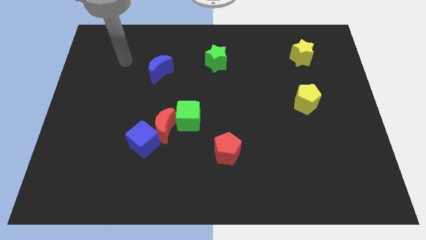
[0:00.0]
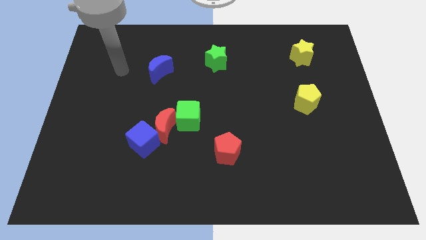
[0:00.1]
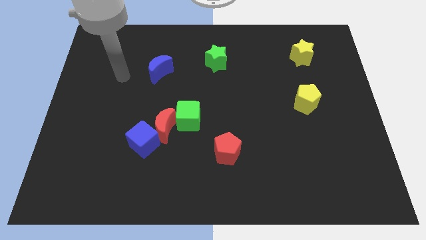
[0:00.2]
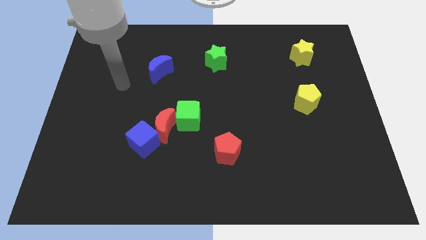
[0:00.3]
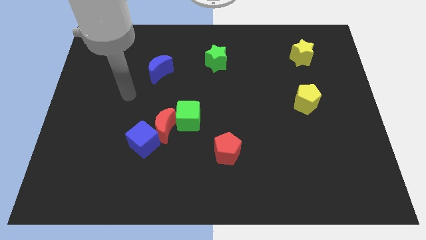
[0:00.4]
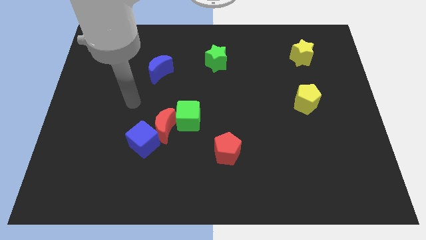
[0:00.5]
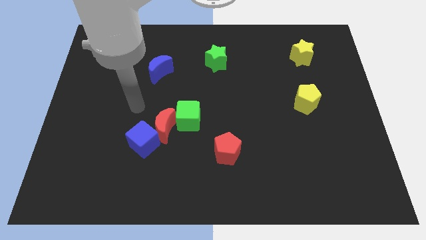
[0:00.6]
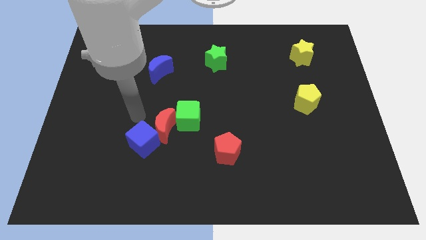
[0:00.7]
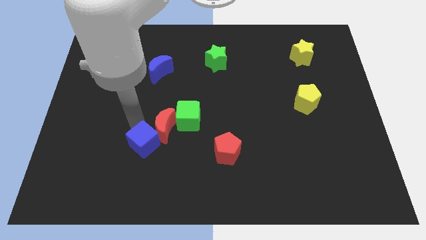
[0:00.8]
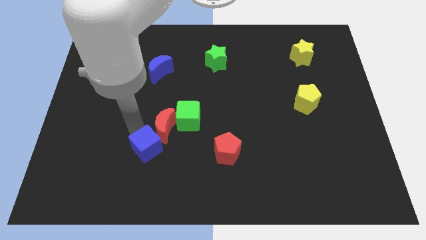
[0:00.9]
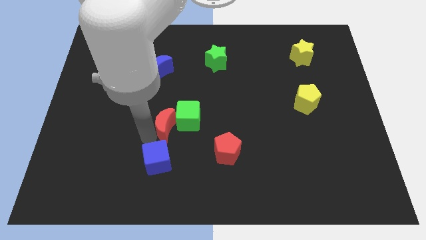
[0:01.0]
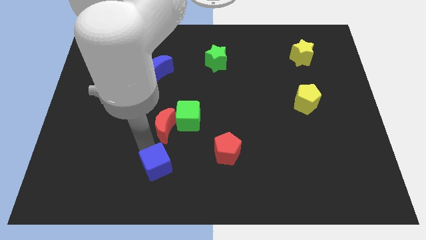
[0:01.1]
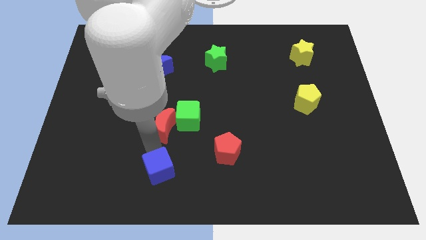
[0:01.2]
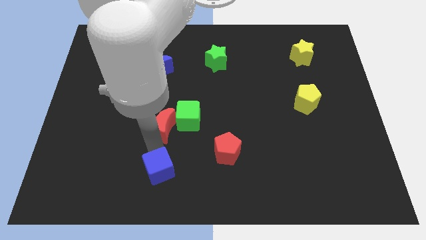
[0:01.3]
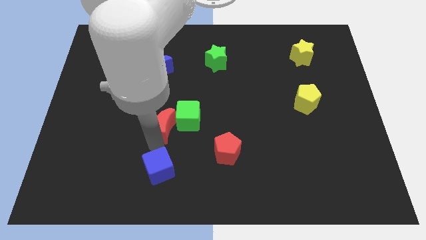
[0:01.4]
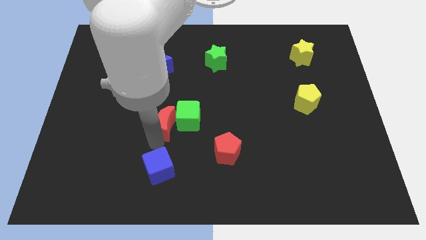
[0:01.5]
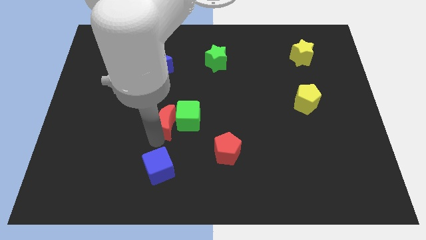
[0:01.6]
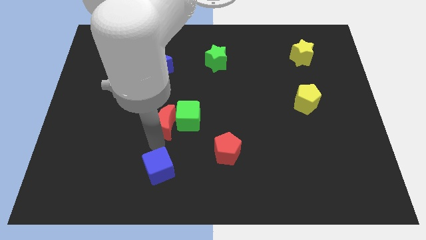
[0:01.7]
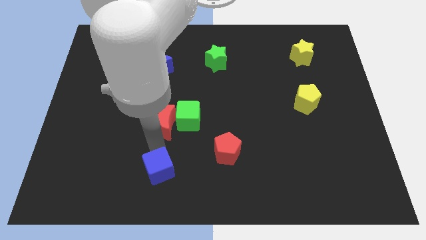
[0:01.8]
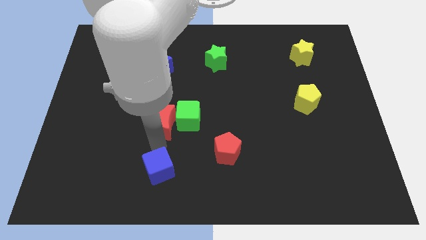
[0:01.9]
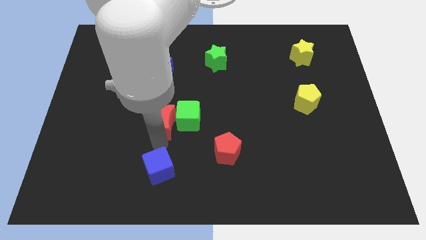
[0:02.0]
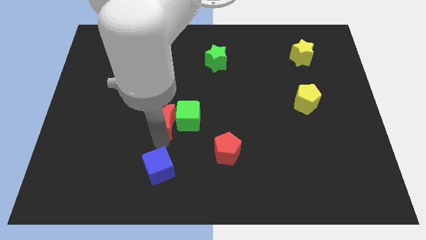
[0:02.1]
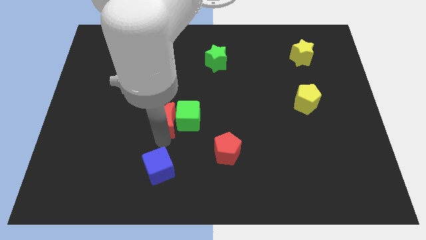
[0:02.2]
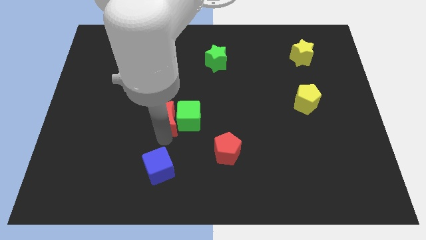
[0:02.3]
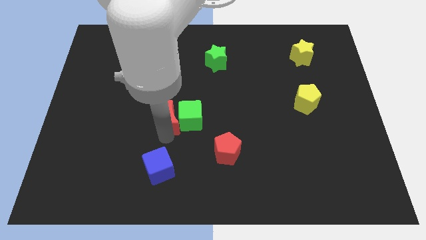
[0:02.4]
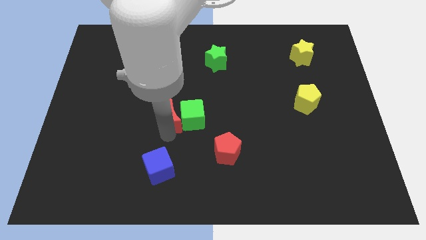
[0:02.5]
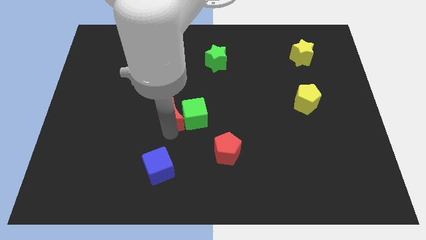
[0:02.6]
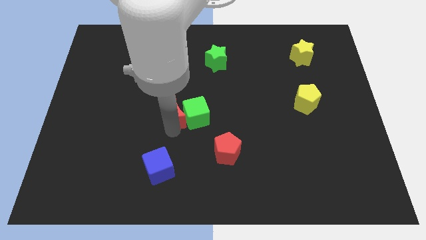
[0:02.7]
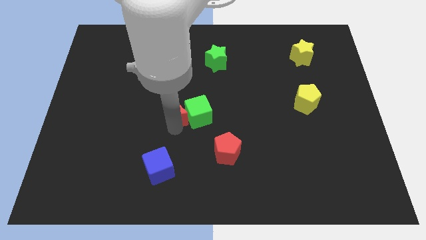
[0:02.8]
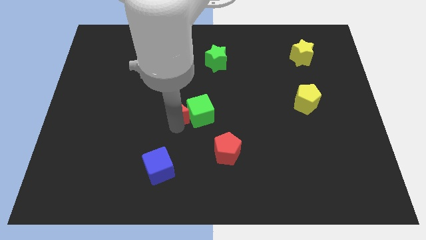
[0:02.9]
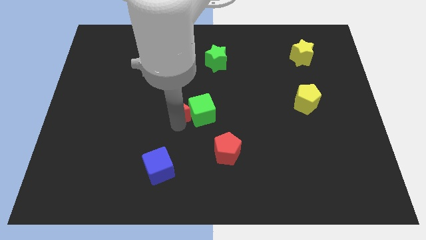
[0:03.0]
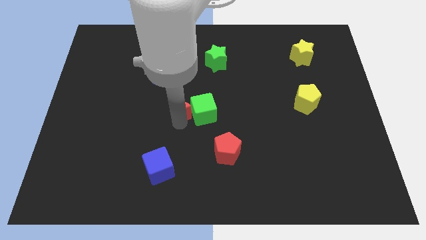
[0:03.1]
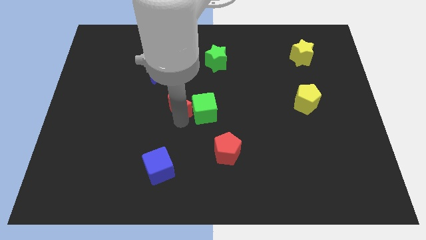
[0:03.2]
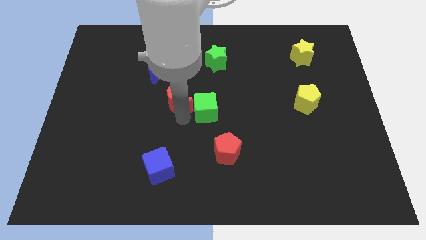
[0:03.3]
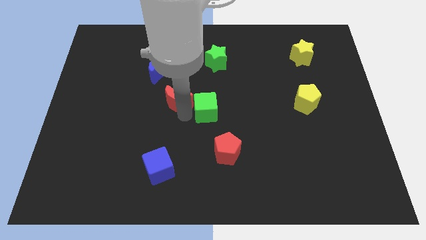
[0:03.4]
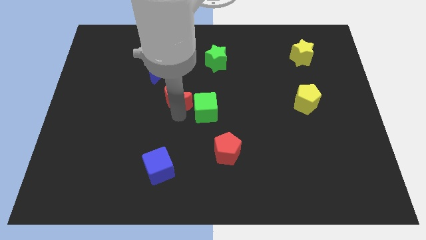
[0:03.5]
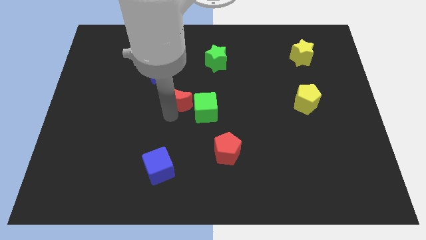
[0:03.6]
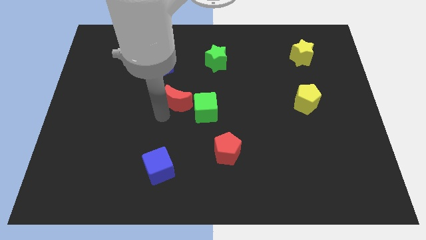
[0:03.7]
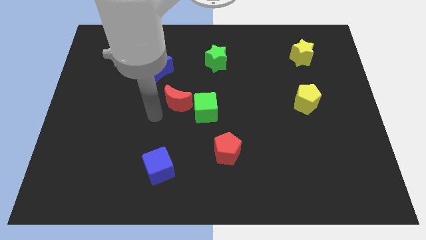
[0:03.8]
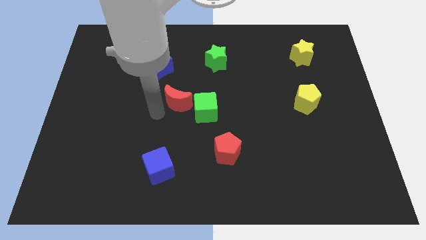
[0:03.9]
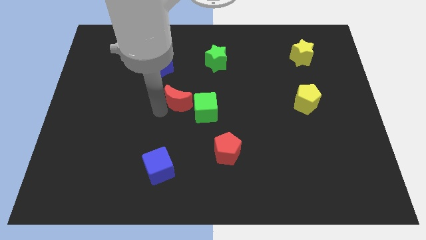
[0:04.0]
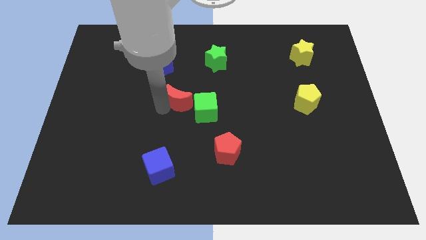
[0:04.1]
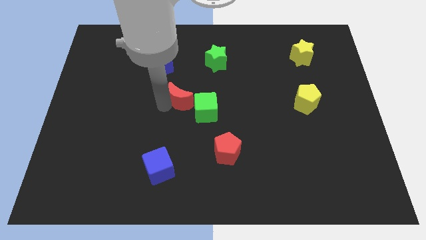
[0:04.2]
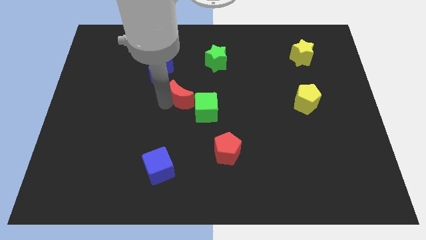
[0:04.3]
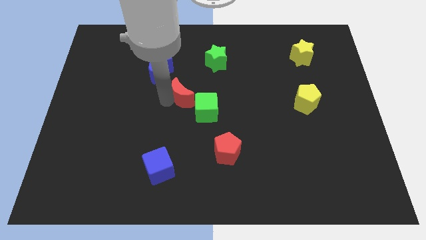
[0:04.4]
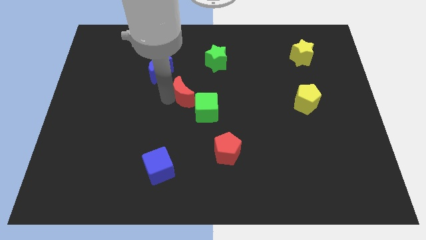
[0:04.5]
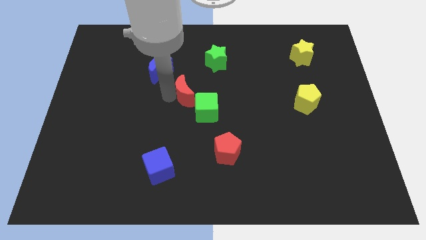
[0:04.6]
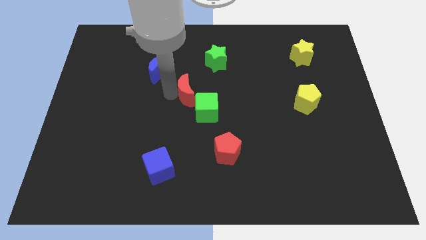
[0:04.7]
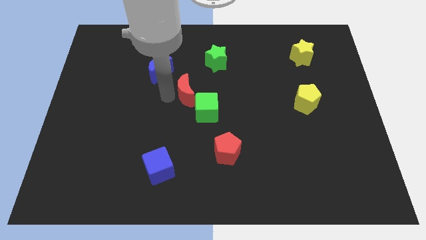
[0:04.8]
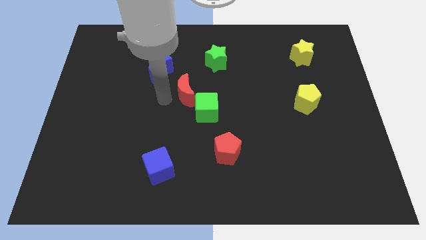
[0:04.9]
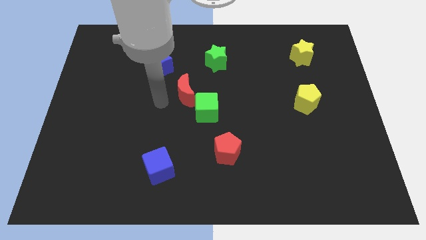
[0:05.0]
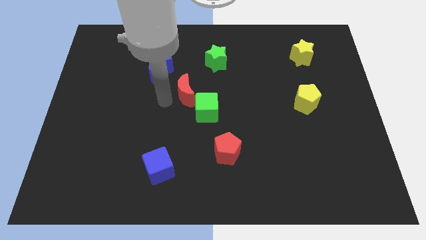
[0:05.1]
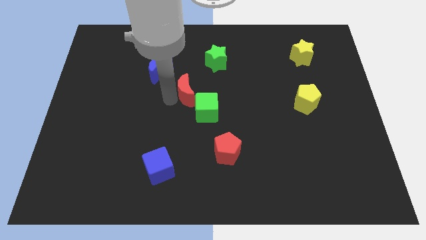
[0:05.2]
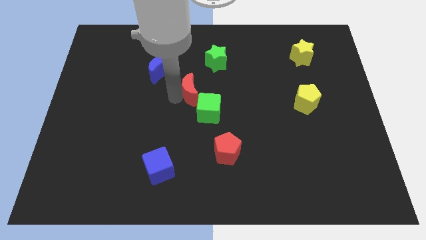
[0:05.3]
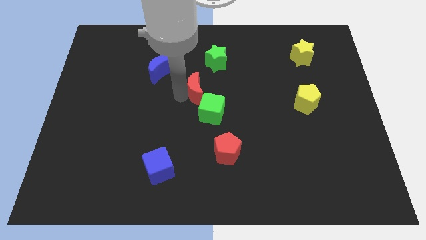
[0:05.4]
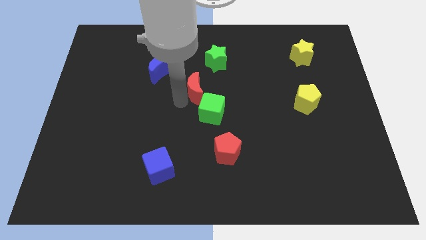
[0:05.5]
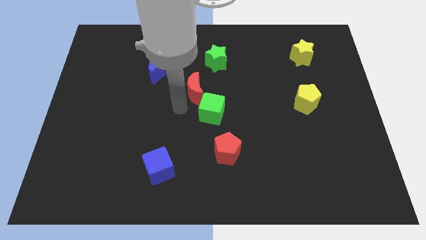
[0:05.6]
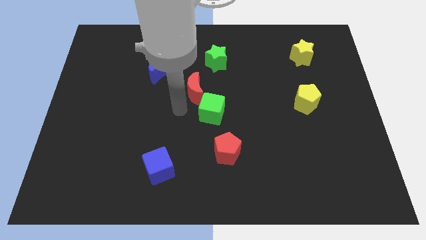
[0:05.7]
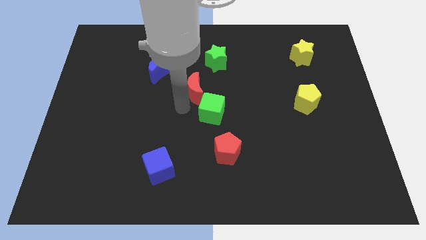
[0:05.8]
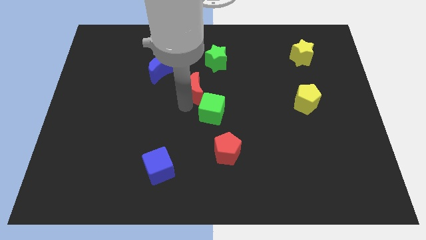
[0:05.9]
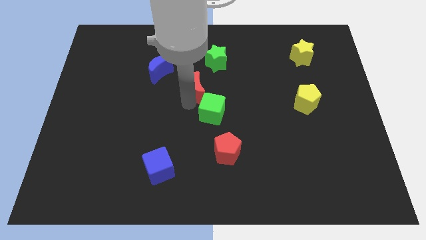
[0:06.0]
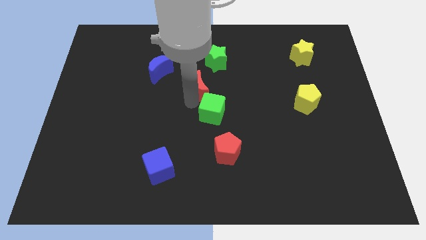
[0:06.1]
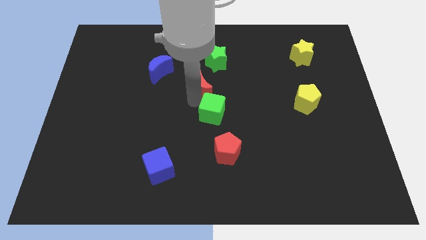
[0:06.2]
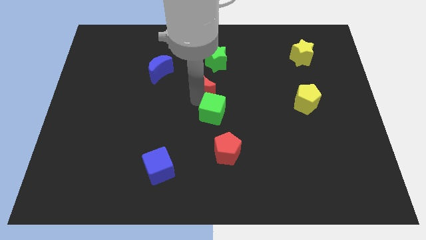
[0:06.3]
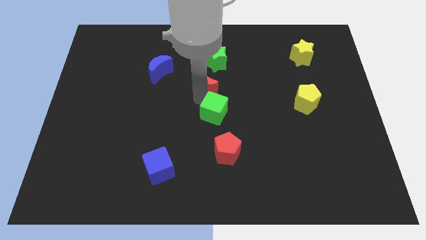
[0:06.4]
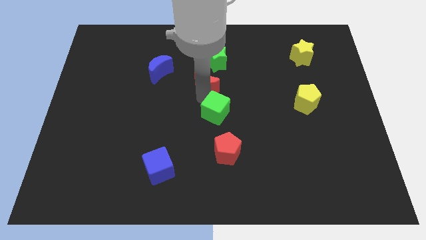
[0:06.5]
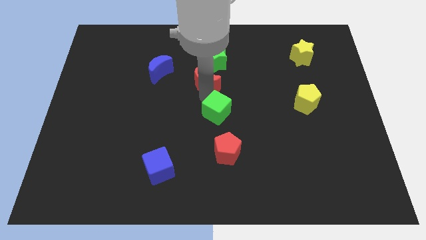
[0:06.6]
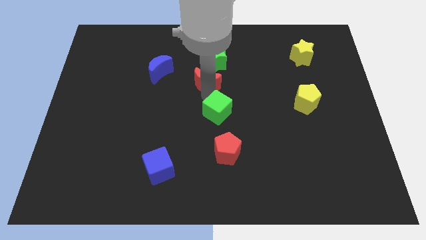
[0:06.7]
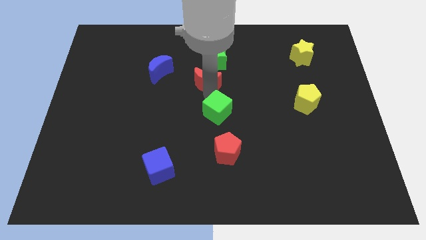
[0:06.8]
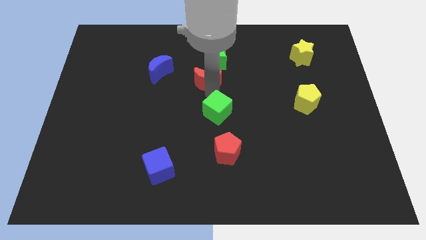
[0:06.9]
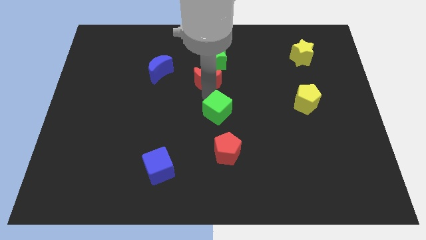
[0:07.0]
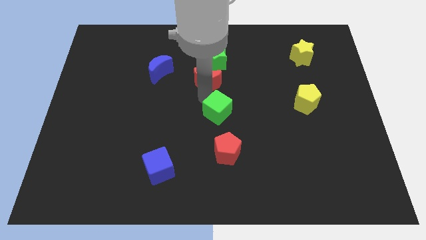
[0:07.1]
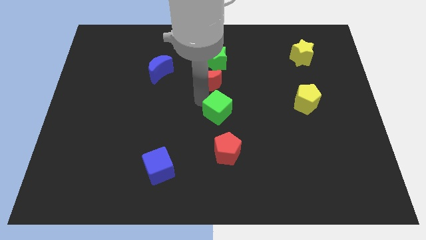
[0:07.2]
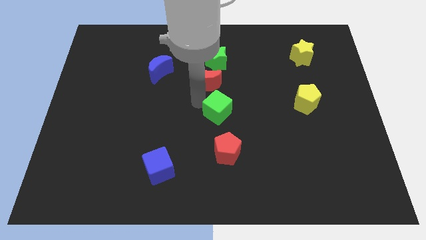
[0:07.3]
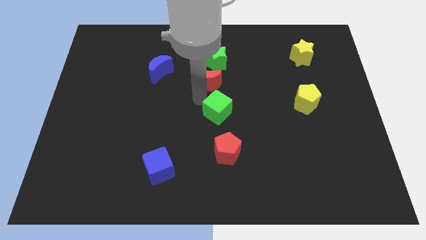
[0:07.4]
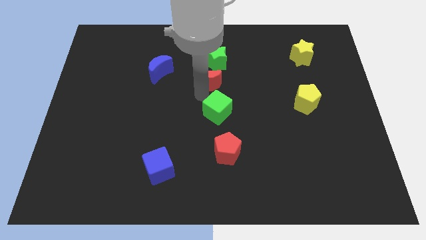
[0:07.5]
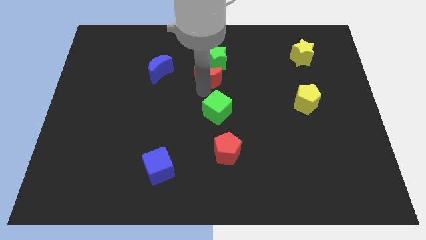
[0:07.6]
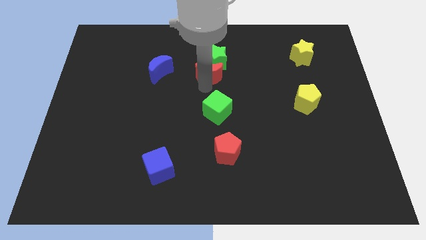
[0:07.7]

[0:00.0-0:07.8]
slide the red moon towards the green star
